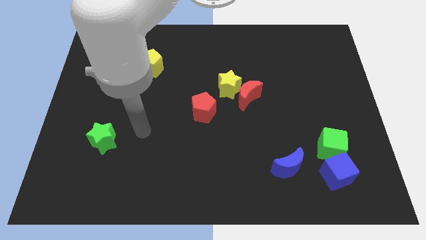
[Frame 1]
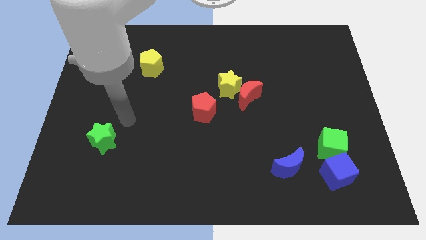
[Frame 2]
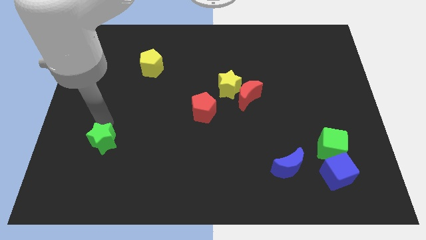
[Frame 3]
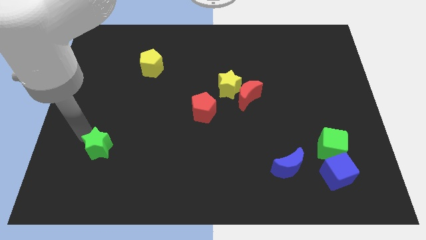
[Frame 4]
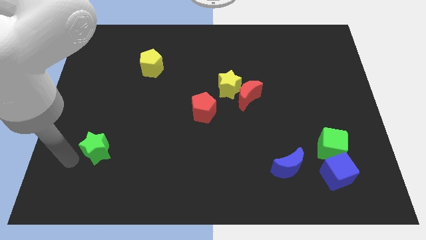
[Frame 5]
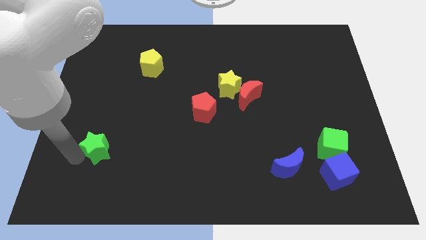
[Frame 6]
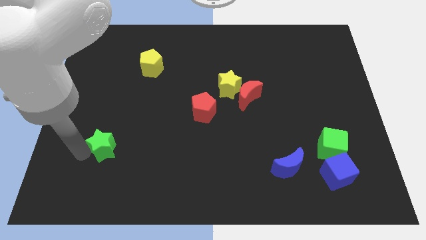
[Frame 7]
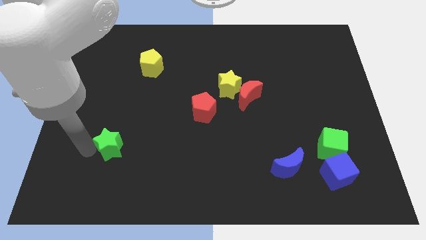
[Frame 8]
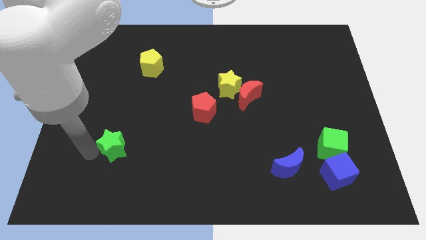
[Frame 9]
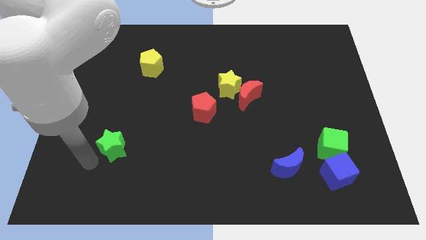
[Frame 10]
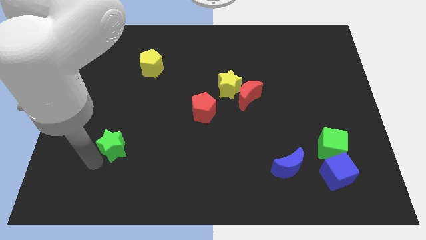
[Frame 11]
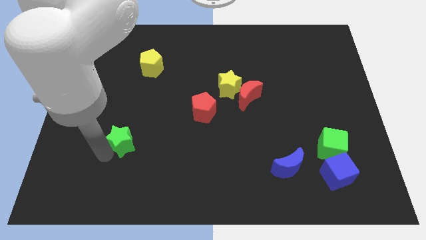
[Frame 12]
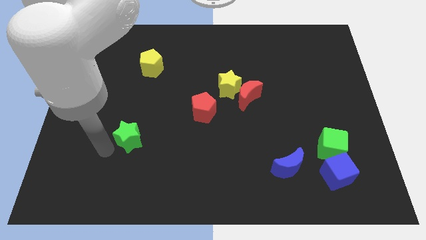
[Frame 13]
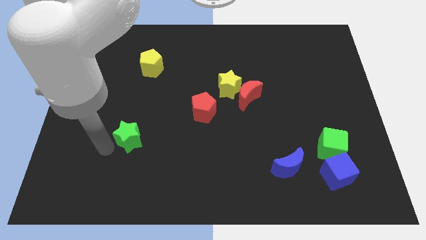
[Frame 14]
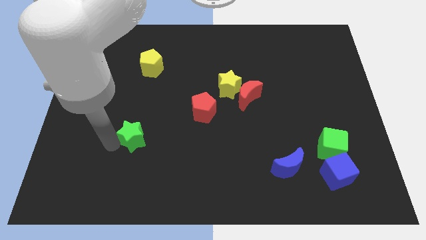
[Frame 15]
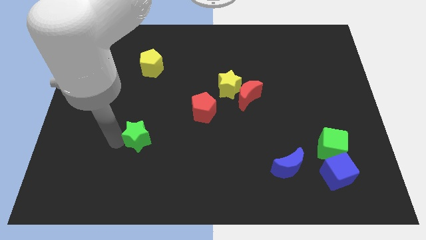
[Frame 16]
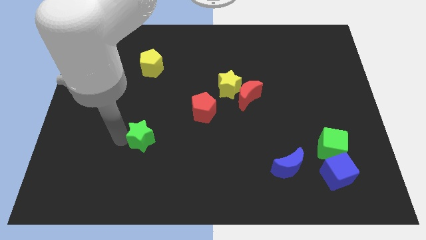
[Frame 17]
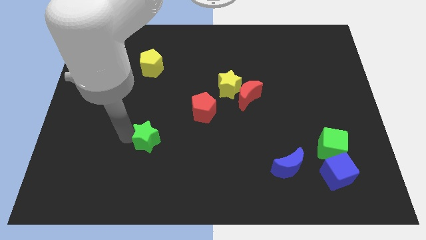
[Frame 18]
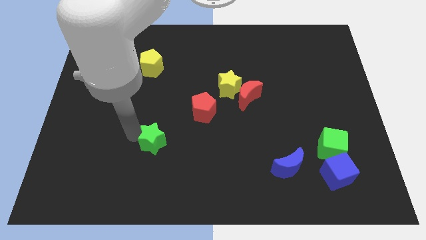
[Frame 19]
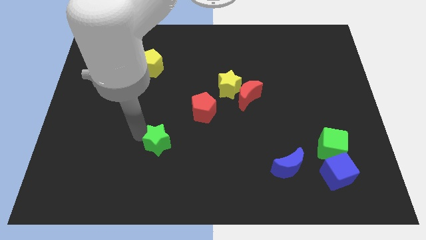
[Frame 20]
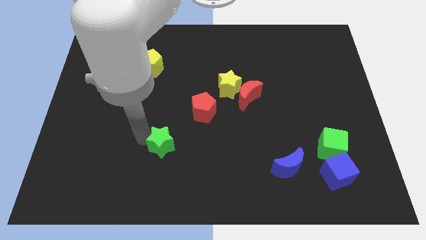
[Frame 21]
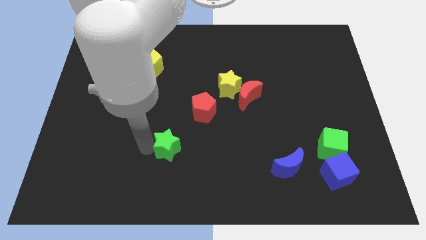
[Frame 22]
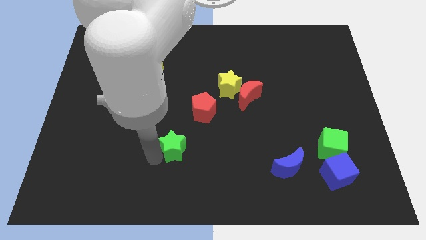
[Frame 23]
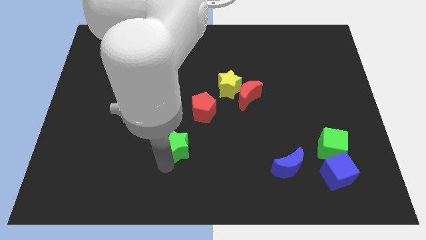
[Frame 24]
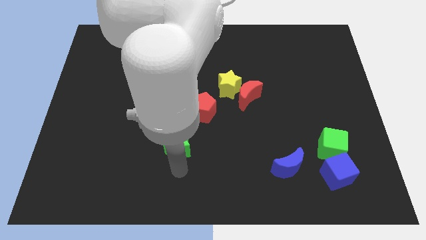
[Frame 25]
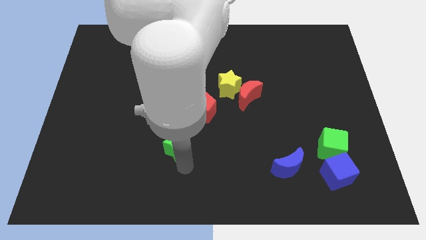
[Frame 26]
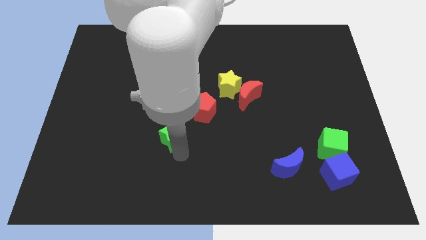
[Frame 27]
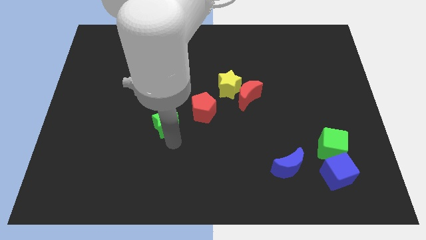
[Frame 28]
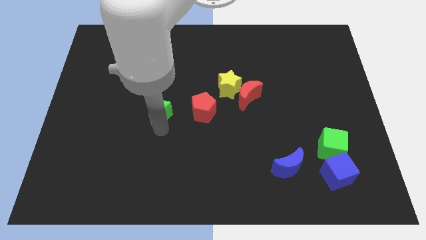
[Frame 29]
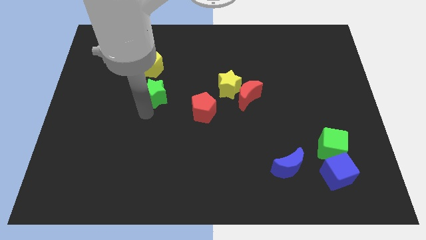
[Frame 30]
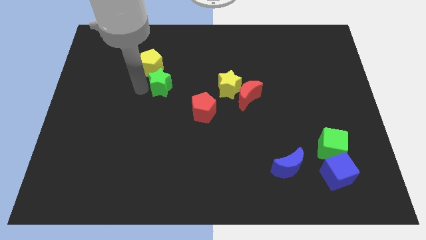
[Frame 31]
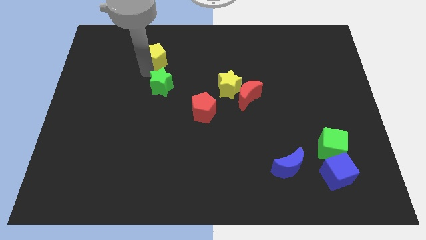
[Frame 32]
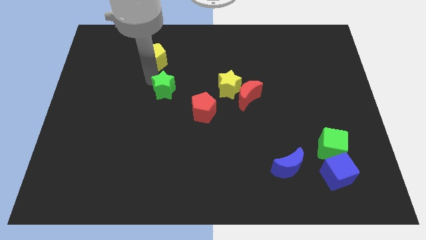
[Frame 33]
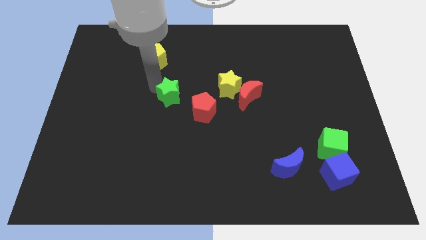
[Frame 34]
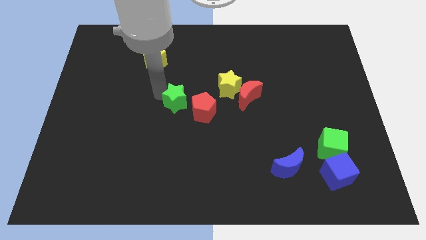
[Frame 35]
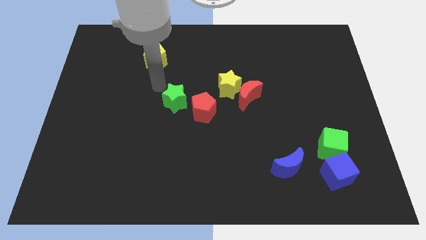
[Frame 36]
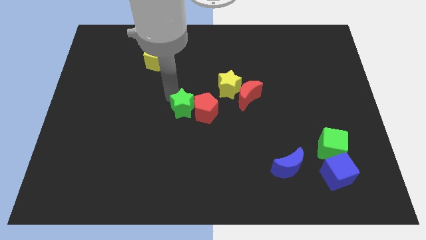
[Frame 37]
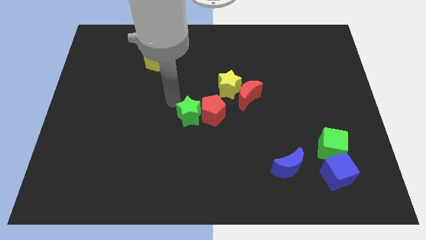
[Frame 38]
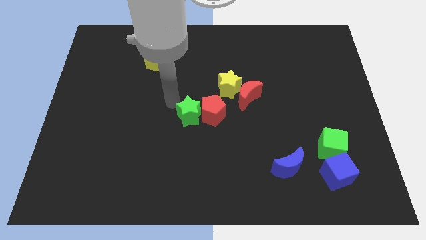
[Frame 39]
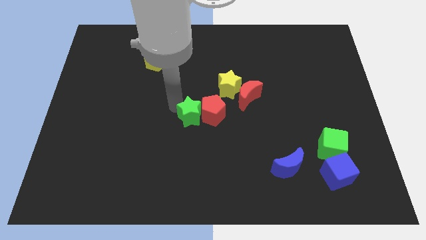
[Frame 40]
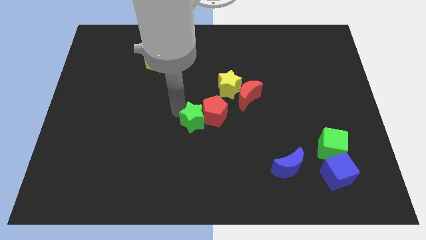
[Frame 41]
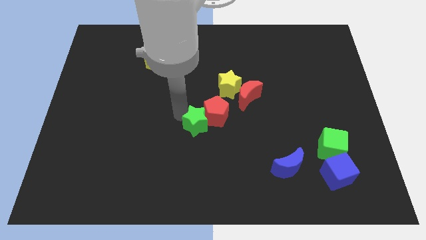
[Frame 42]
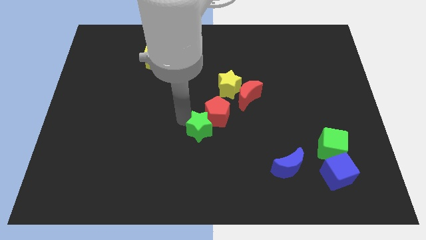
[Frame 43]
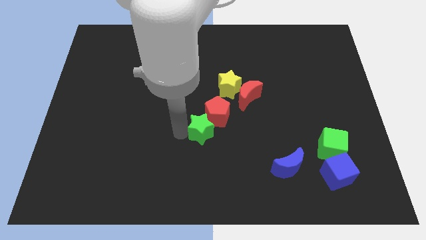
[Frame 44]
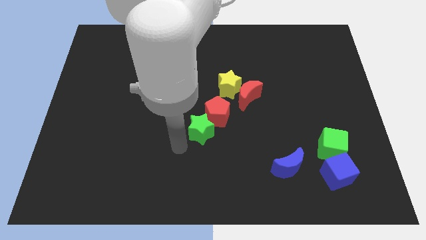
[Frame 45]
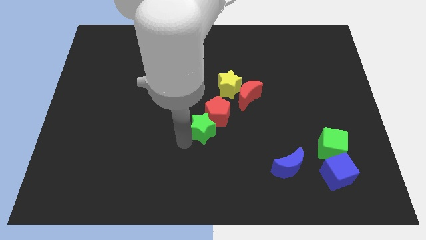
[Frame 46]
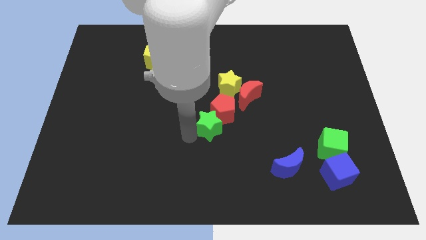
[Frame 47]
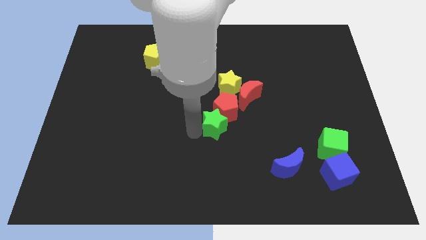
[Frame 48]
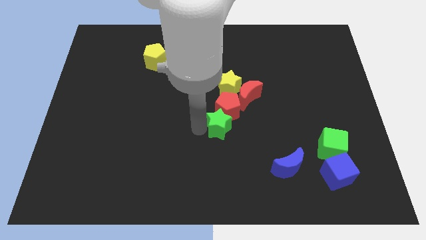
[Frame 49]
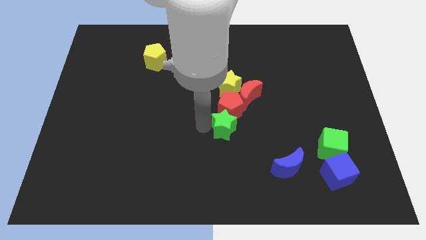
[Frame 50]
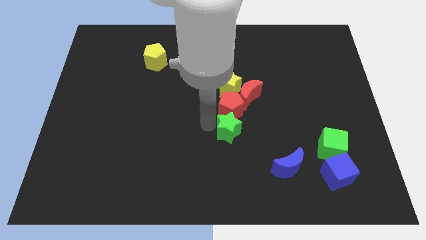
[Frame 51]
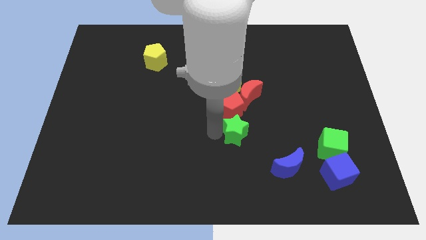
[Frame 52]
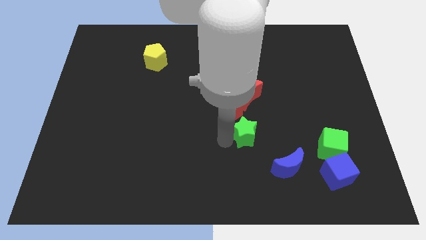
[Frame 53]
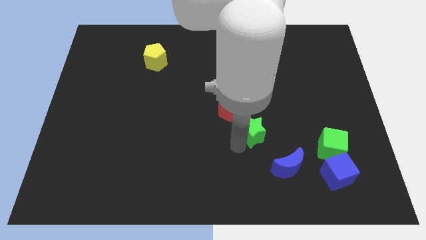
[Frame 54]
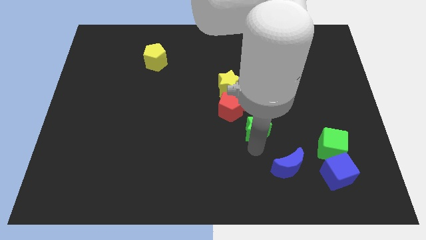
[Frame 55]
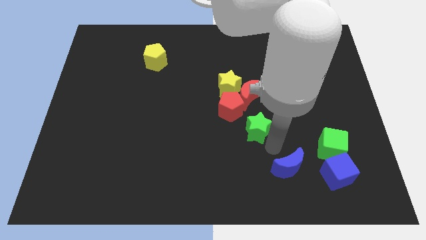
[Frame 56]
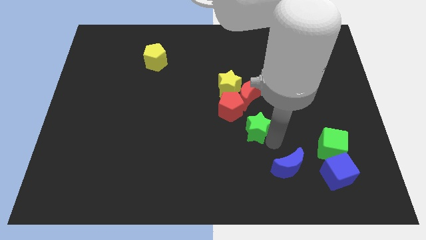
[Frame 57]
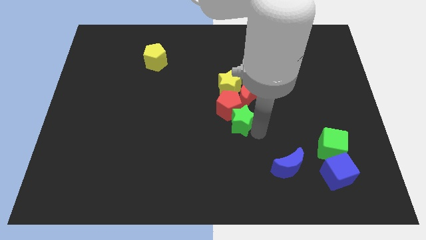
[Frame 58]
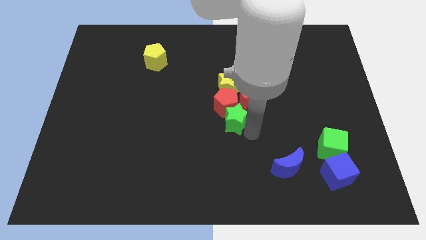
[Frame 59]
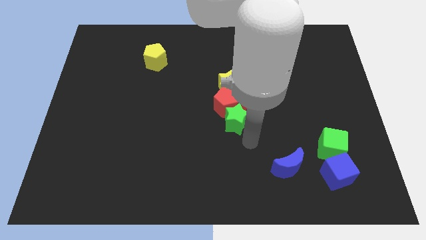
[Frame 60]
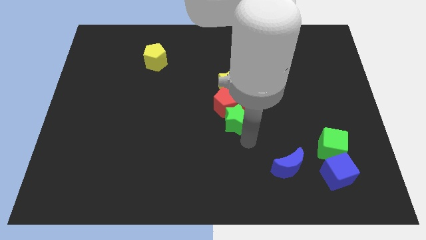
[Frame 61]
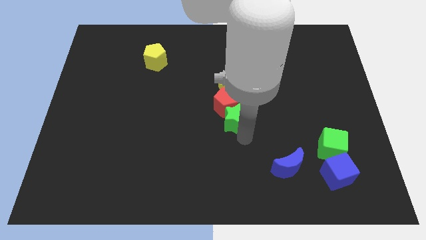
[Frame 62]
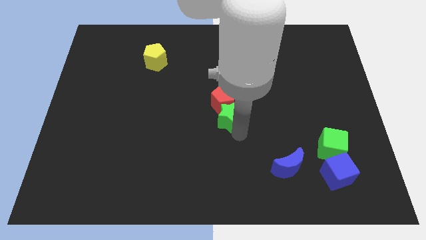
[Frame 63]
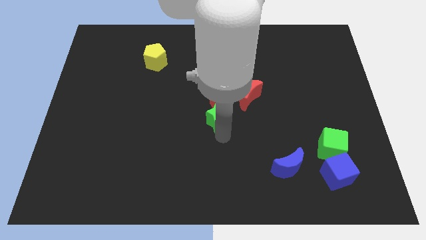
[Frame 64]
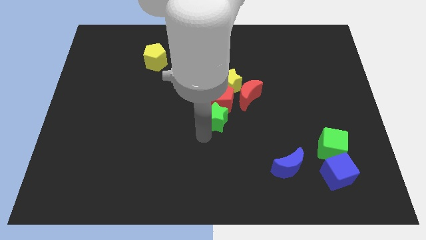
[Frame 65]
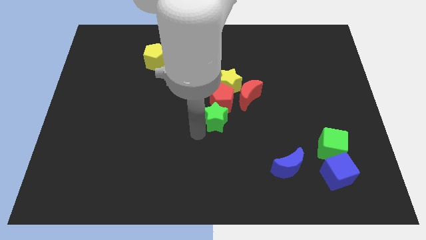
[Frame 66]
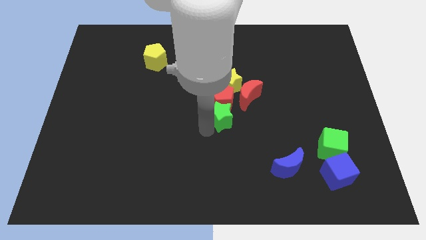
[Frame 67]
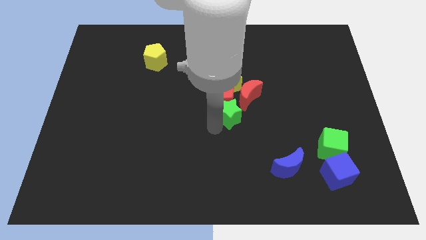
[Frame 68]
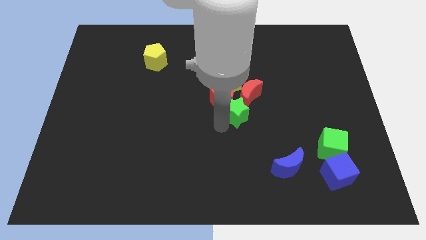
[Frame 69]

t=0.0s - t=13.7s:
push the green star next to the red moon

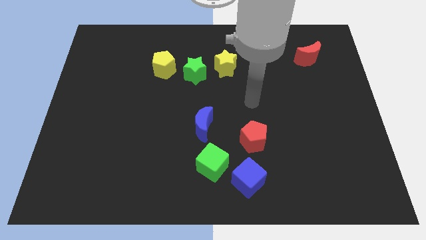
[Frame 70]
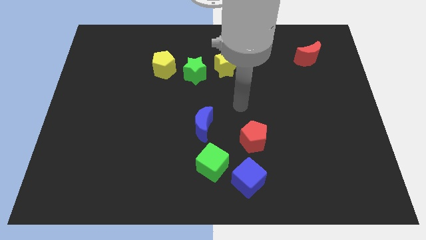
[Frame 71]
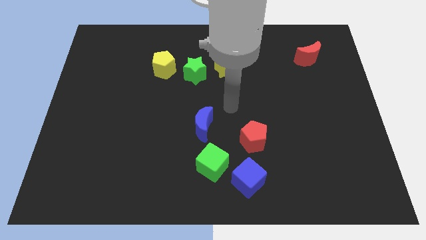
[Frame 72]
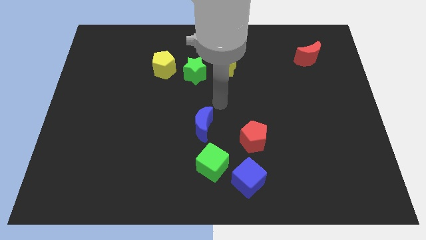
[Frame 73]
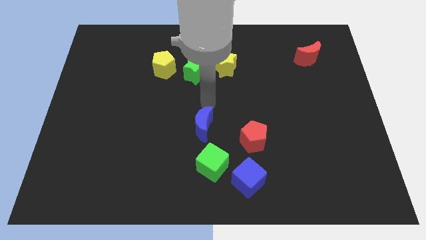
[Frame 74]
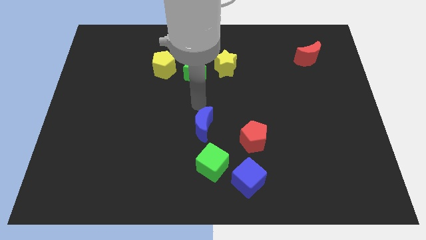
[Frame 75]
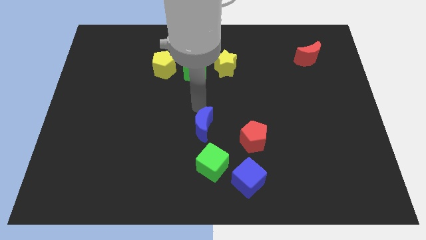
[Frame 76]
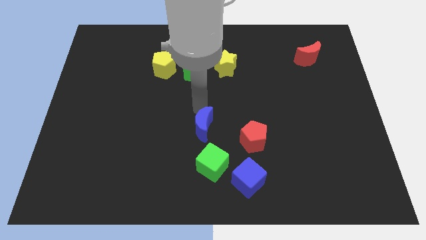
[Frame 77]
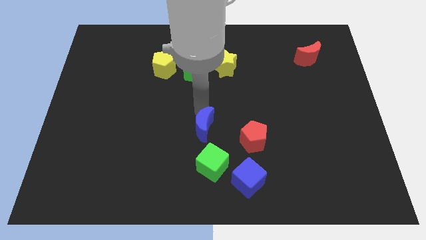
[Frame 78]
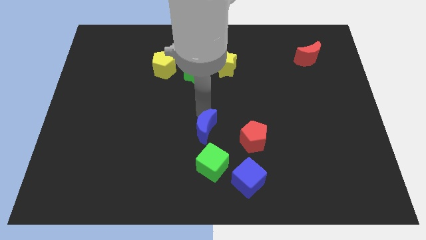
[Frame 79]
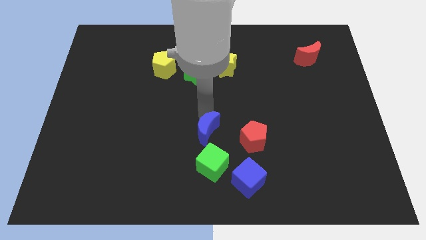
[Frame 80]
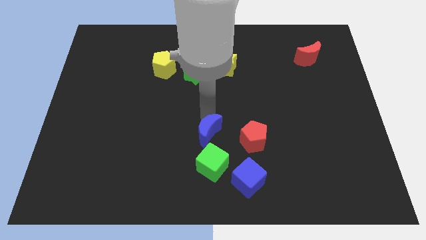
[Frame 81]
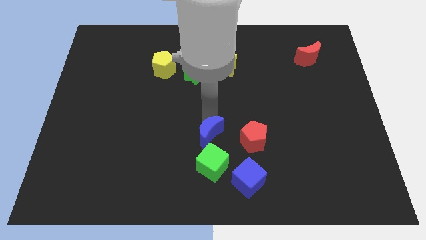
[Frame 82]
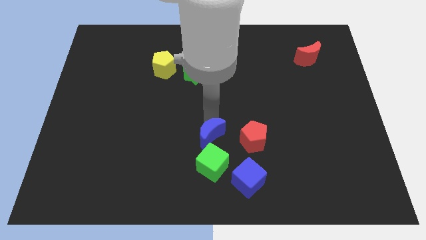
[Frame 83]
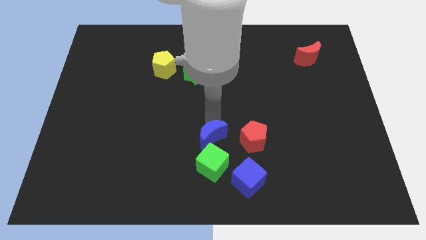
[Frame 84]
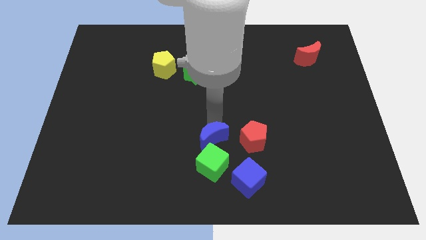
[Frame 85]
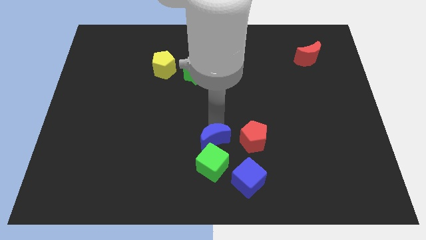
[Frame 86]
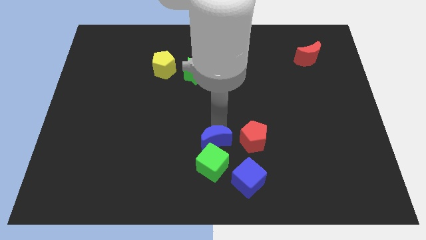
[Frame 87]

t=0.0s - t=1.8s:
put the blue moon next to the green cube
